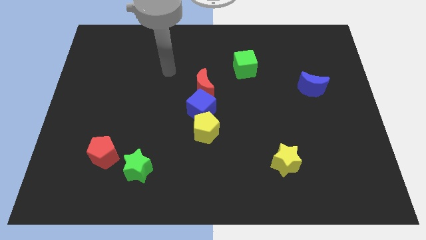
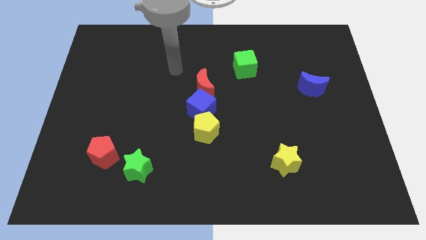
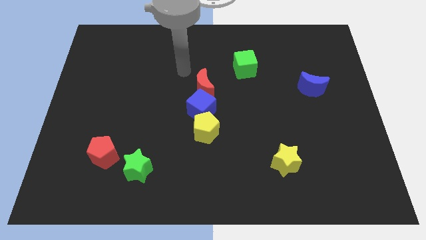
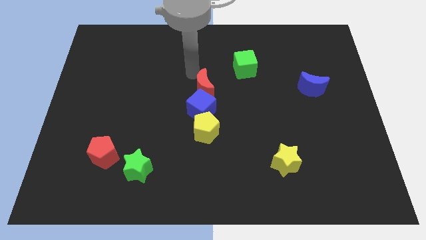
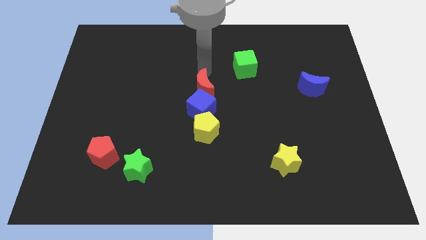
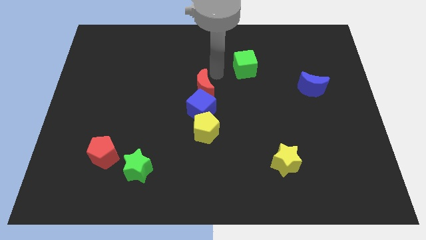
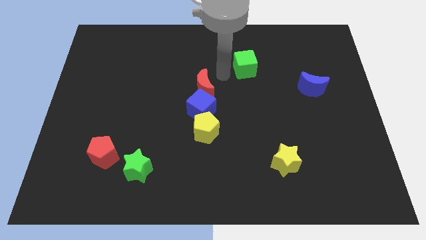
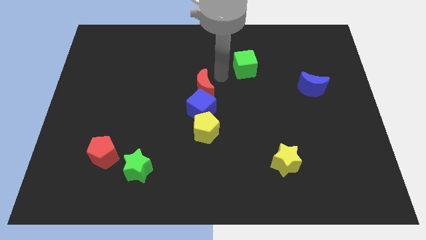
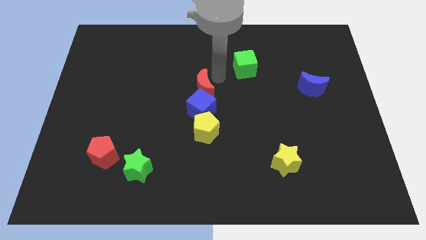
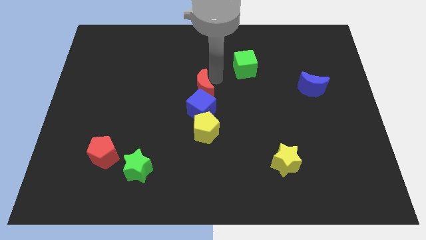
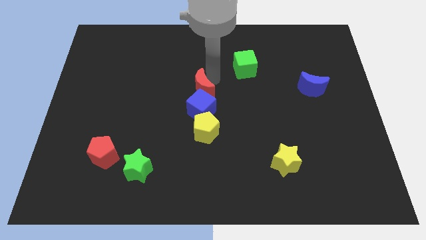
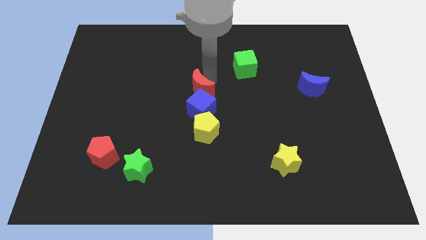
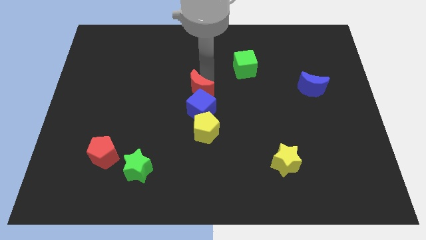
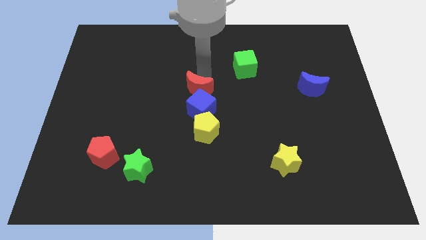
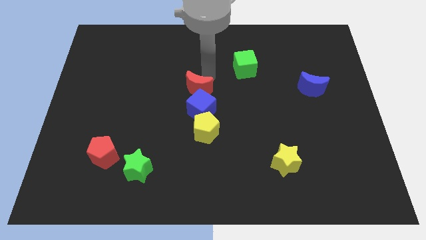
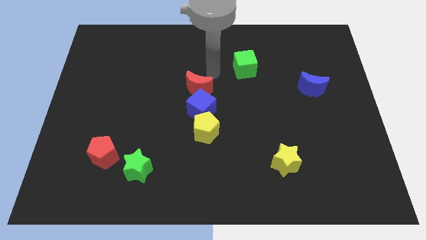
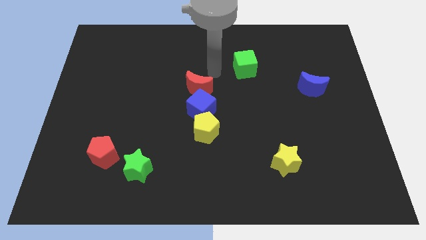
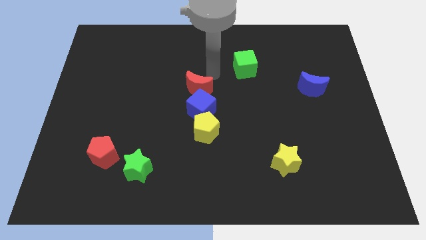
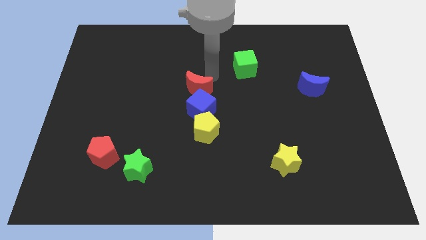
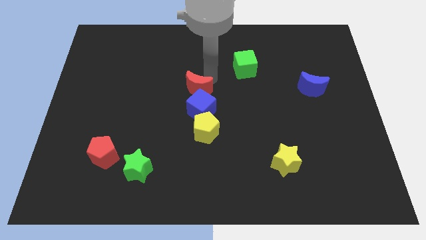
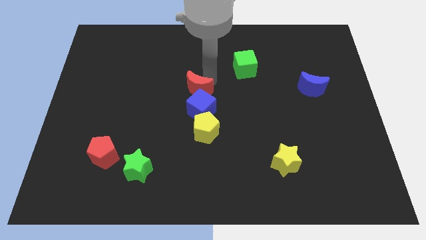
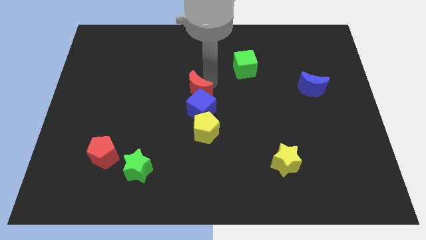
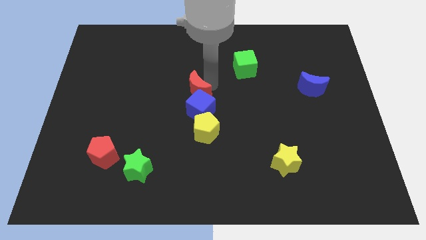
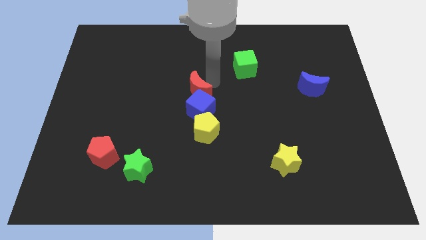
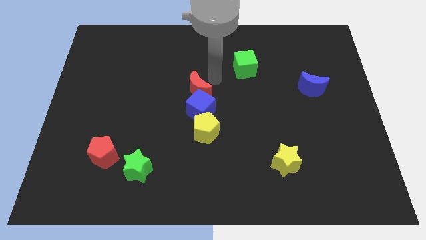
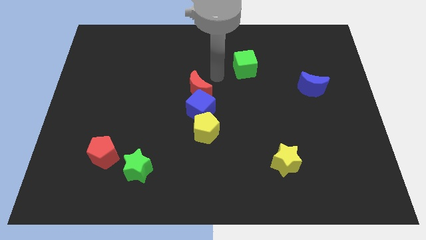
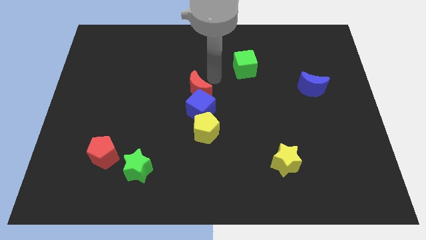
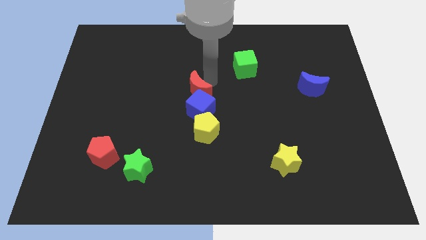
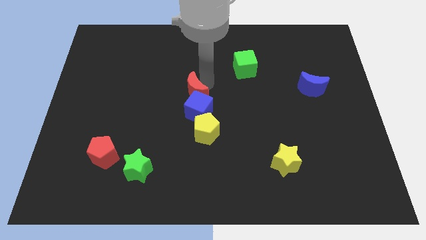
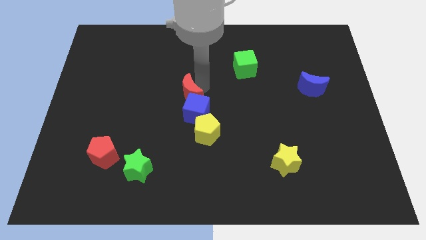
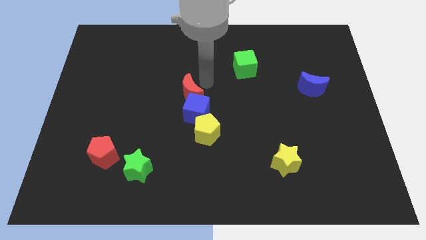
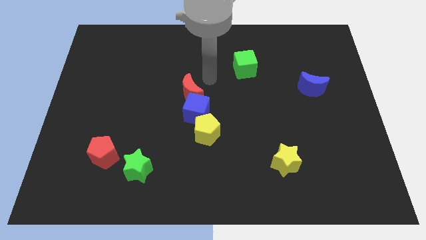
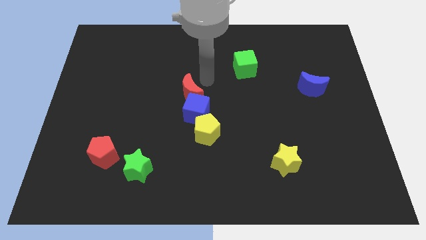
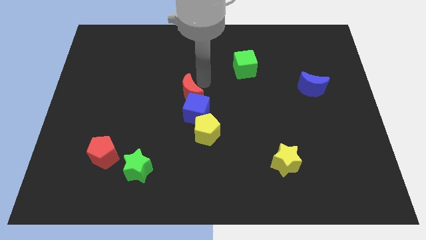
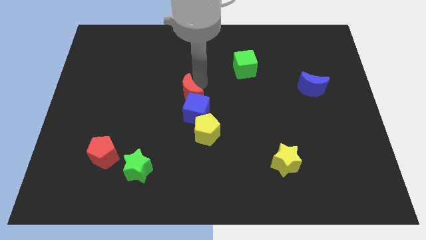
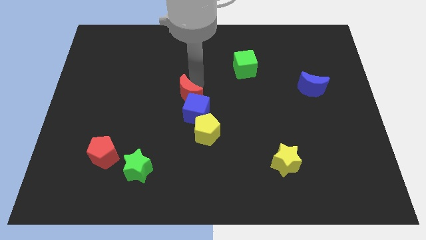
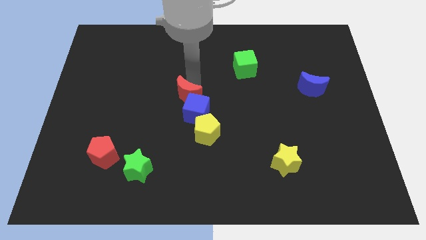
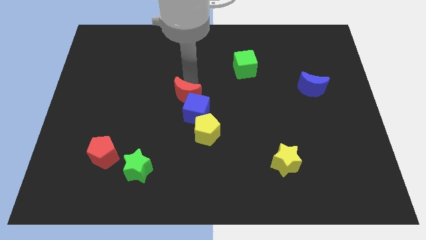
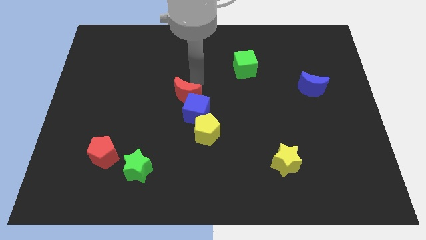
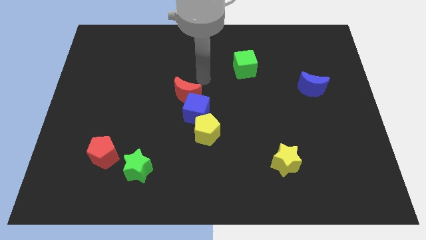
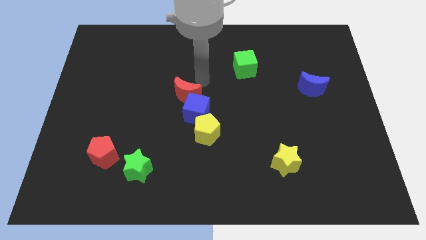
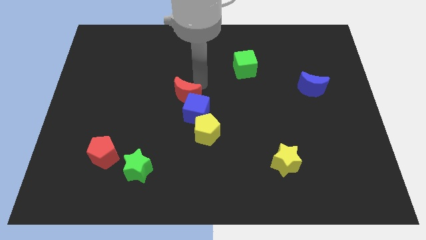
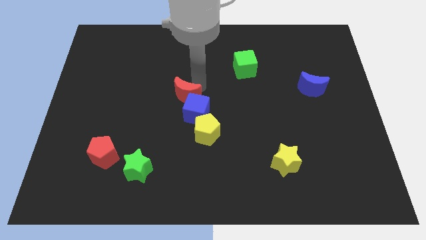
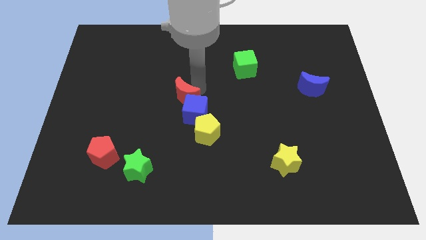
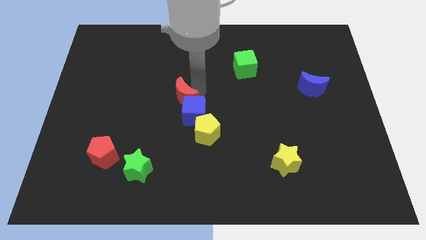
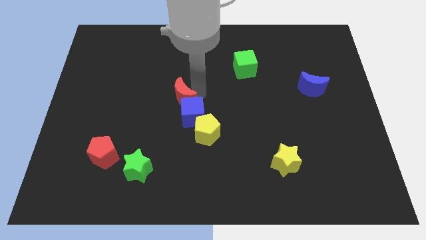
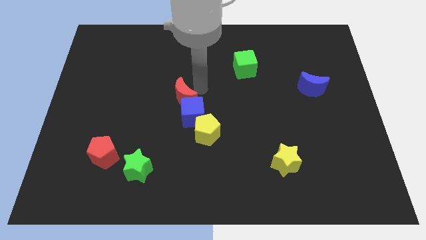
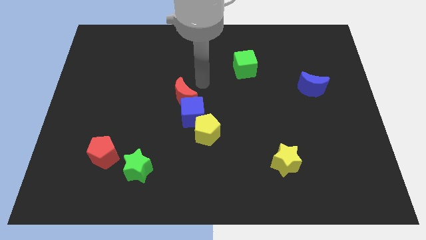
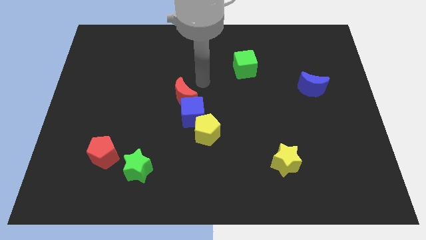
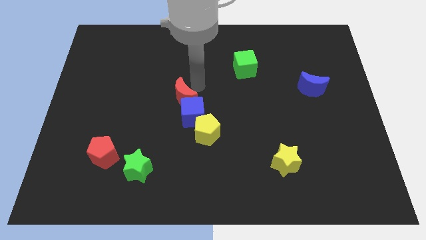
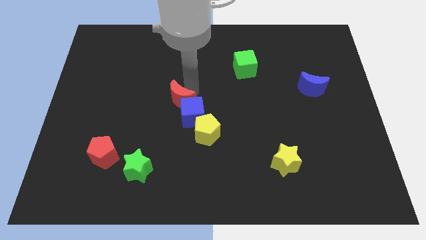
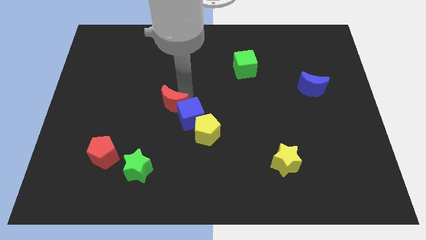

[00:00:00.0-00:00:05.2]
slide the red moon somewhat down and left diagonally

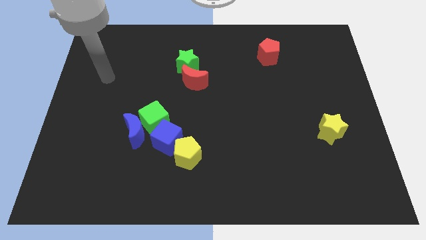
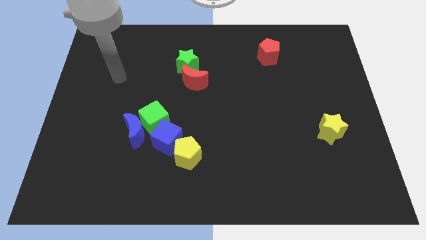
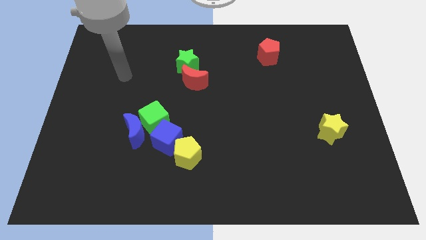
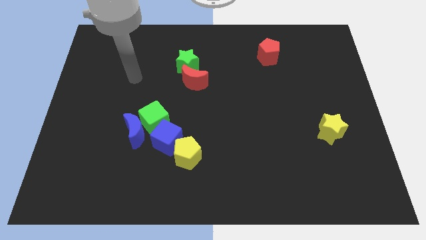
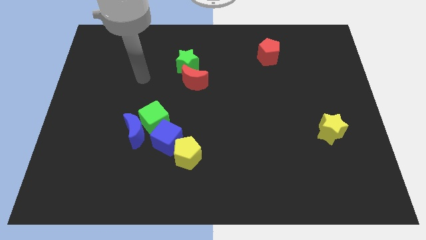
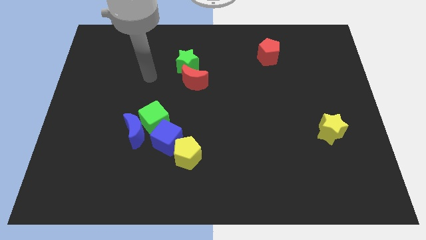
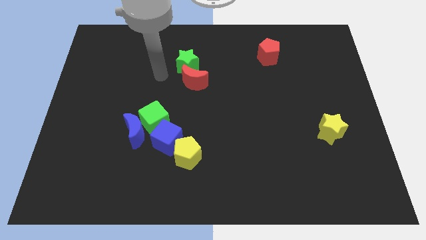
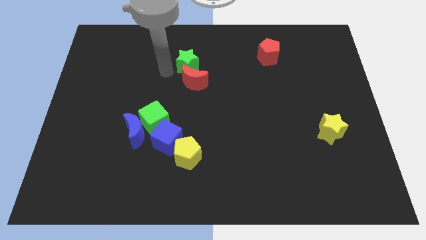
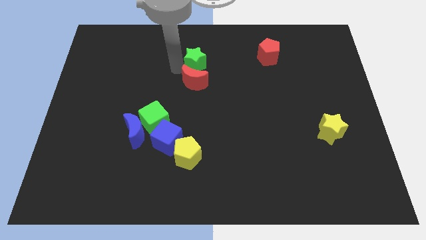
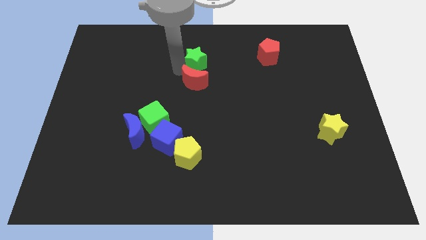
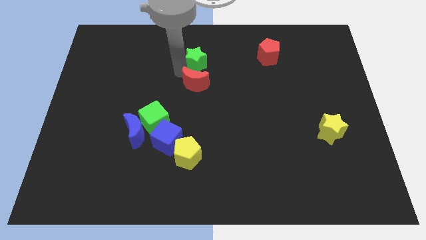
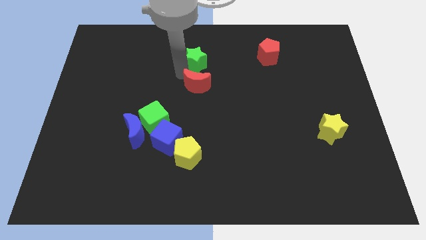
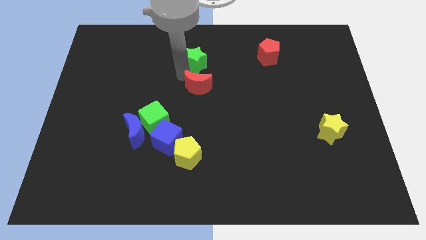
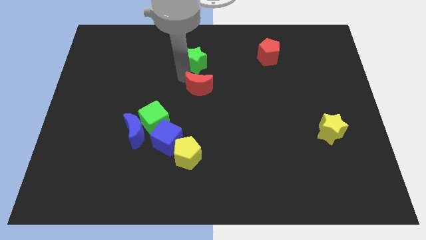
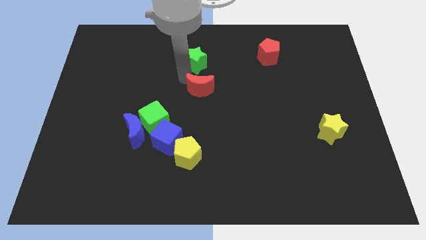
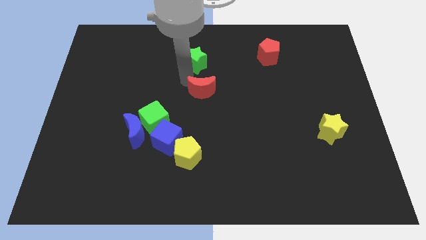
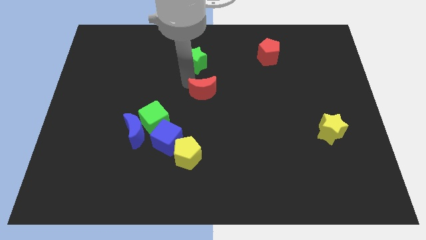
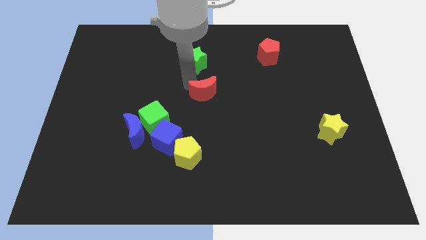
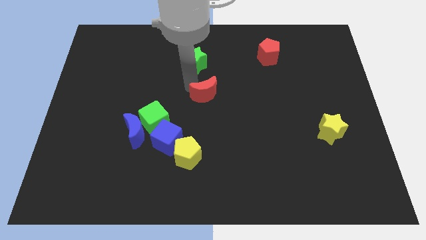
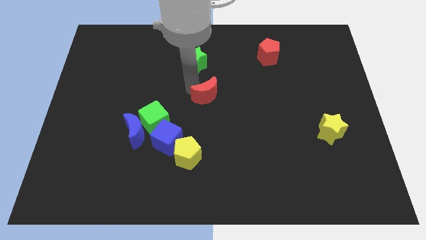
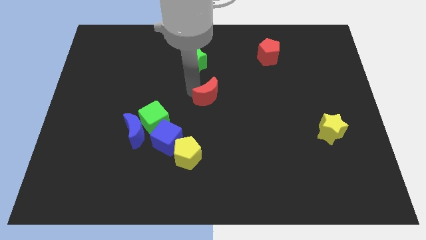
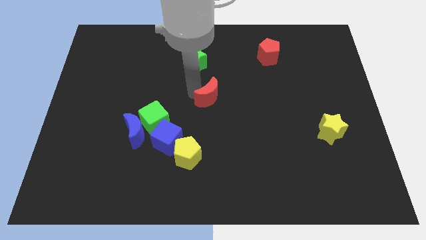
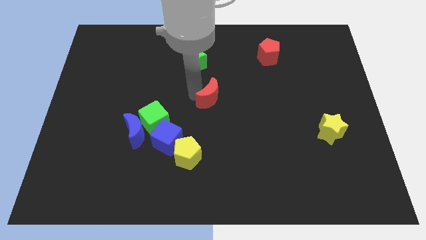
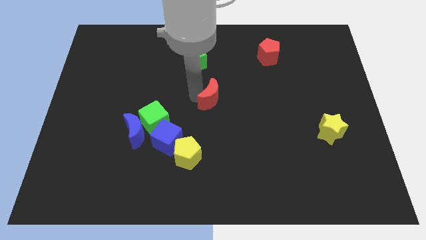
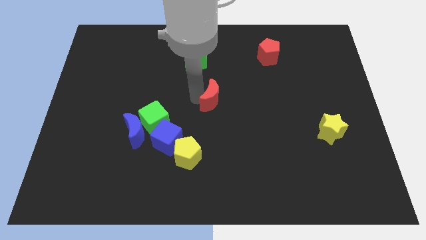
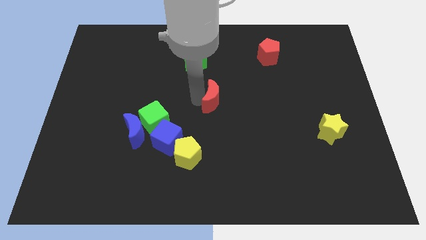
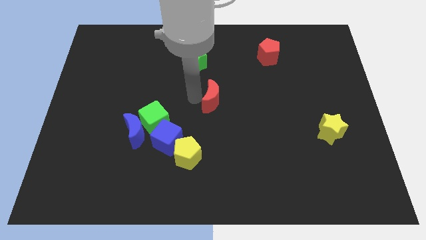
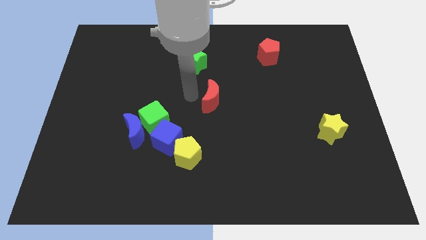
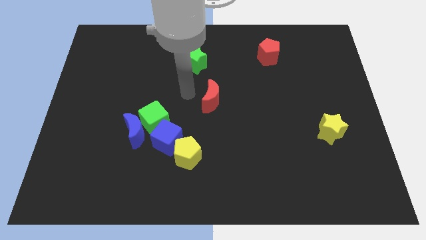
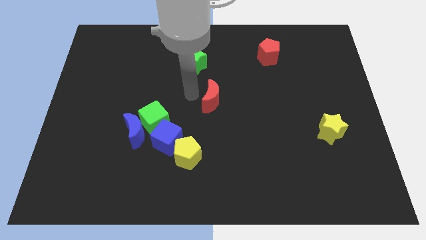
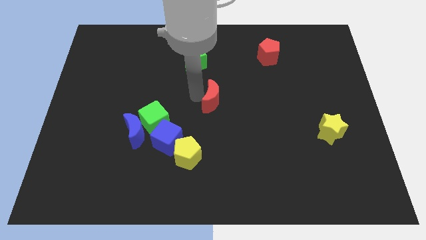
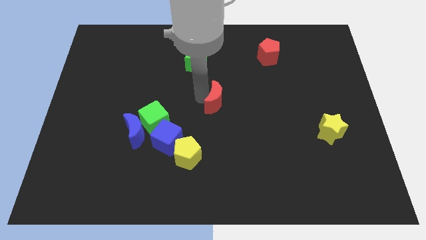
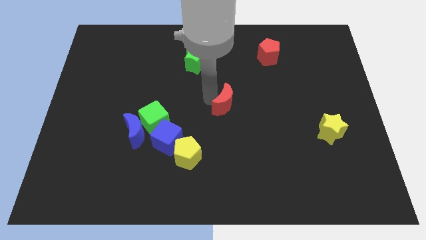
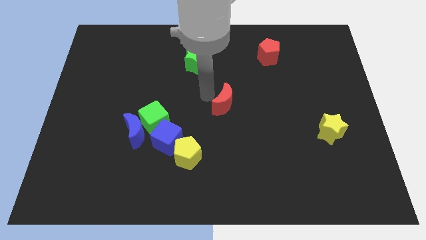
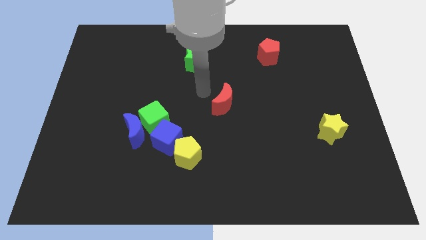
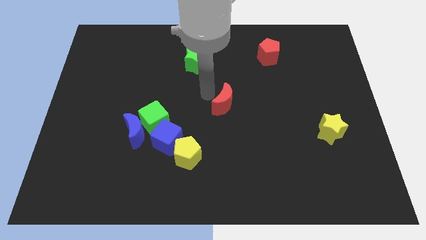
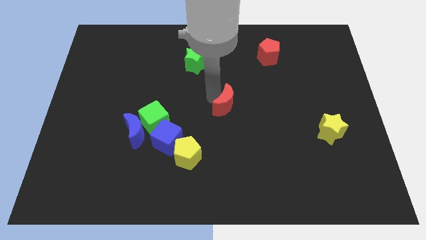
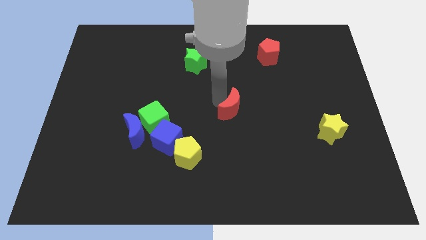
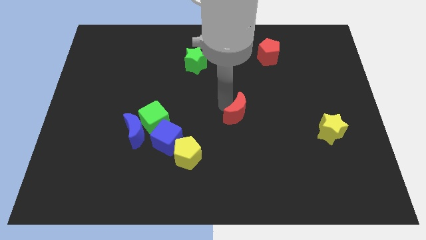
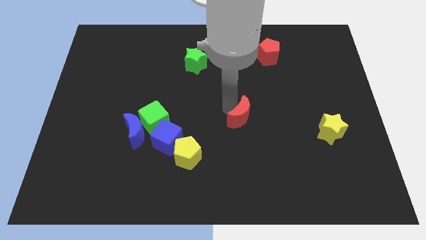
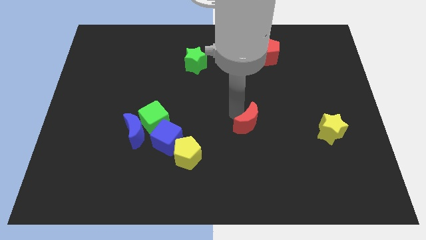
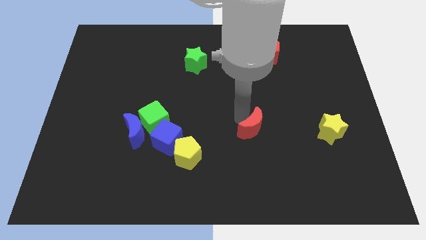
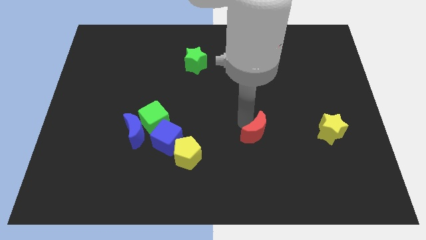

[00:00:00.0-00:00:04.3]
move the red moon diagonally down and to the right
